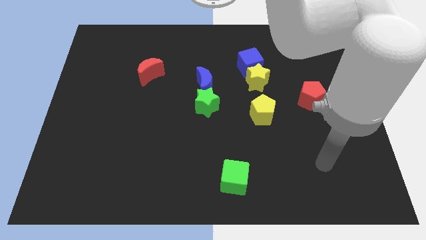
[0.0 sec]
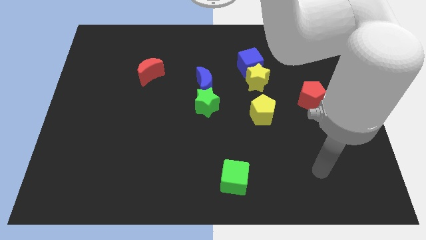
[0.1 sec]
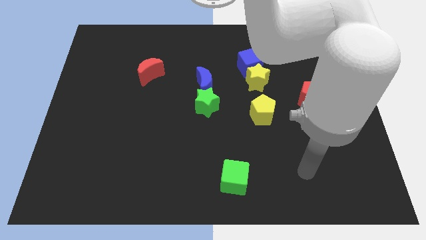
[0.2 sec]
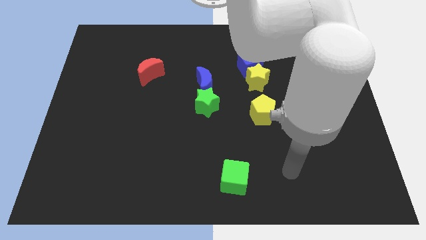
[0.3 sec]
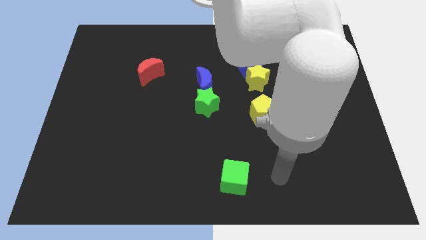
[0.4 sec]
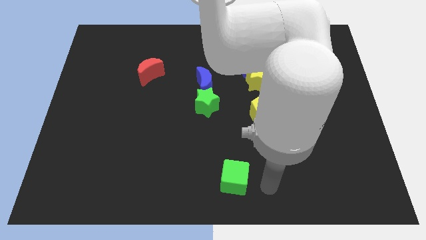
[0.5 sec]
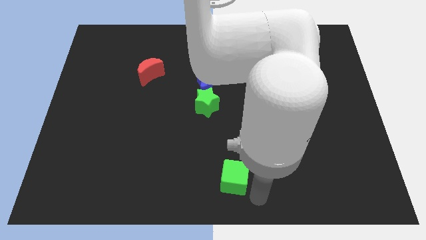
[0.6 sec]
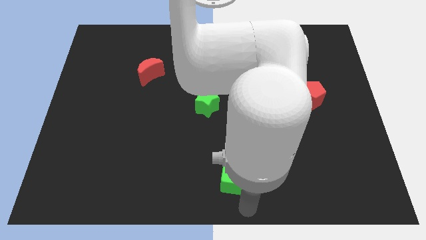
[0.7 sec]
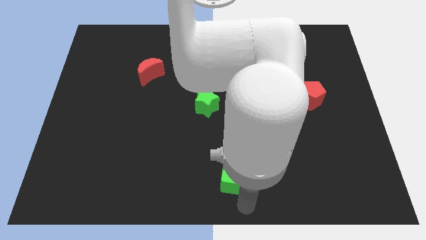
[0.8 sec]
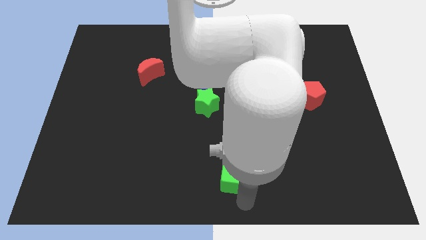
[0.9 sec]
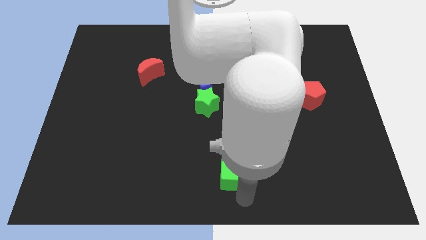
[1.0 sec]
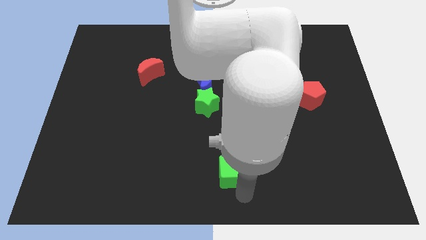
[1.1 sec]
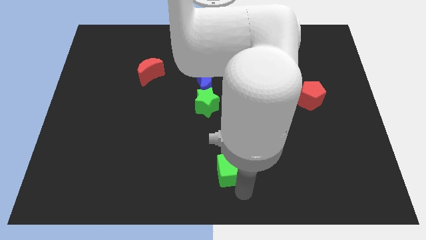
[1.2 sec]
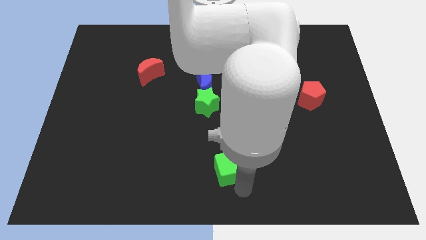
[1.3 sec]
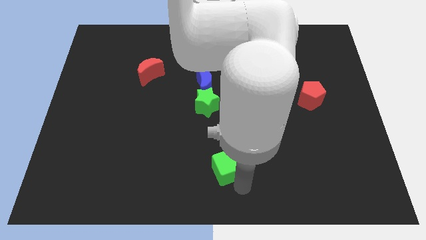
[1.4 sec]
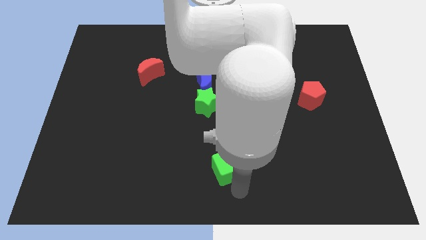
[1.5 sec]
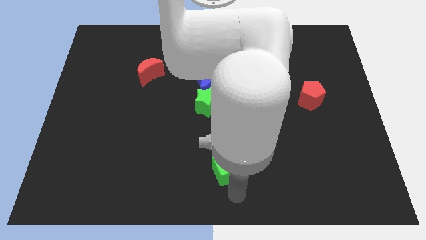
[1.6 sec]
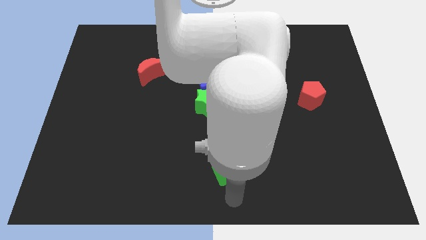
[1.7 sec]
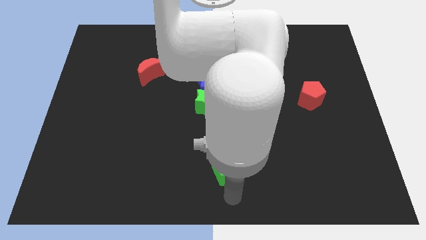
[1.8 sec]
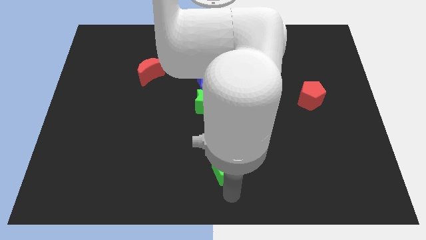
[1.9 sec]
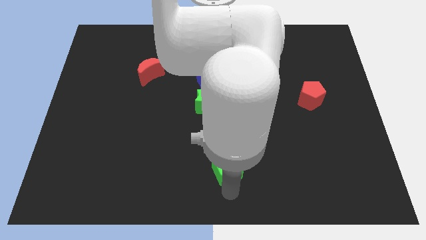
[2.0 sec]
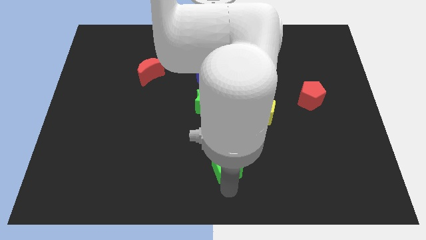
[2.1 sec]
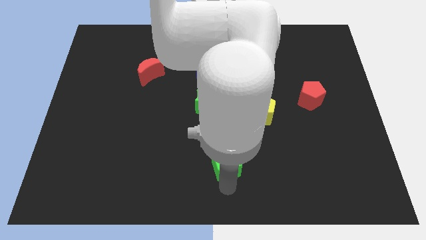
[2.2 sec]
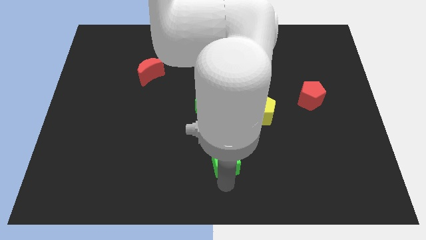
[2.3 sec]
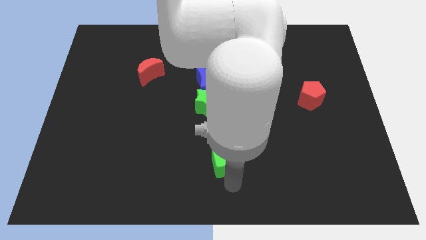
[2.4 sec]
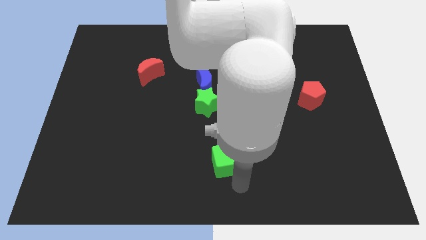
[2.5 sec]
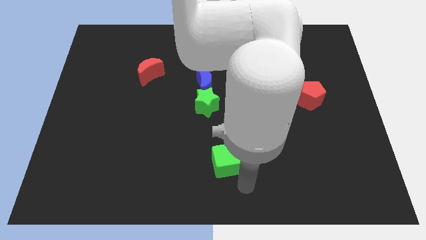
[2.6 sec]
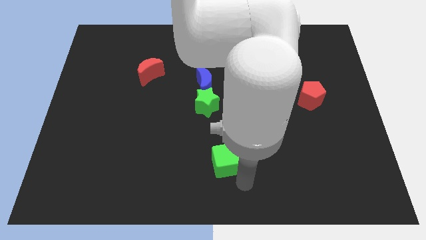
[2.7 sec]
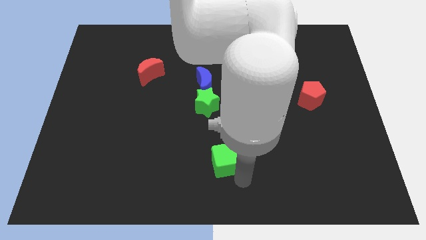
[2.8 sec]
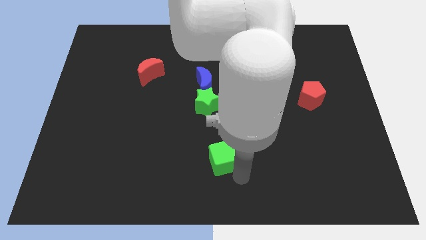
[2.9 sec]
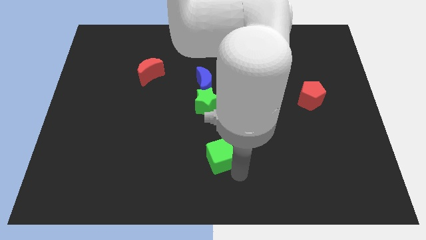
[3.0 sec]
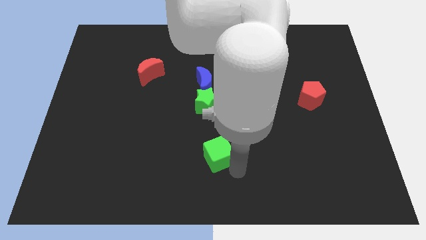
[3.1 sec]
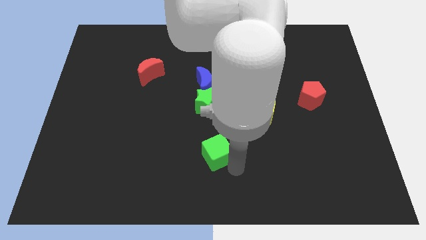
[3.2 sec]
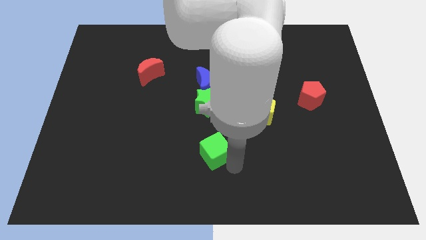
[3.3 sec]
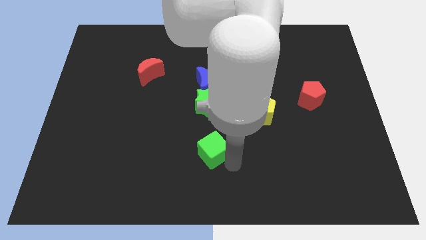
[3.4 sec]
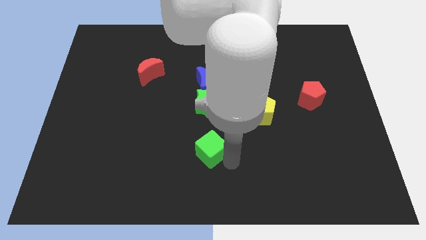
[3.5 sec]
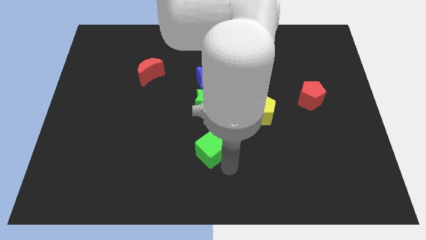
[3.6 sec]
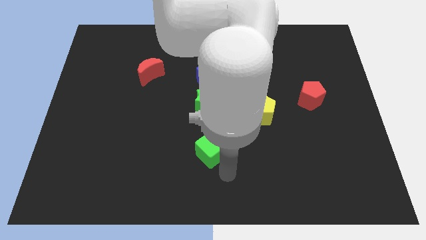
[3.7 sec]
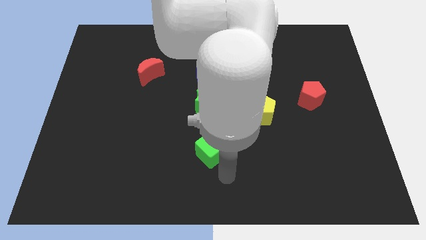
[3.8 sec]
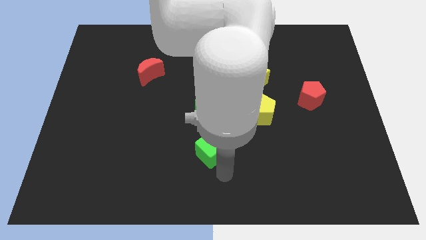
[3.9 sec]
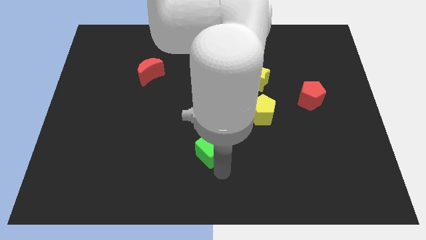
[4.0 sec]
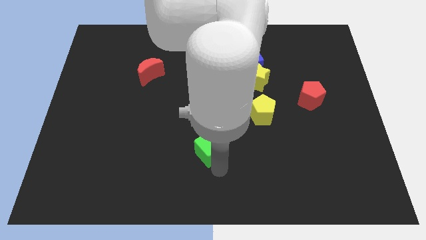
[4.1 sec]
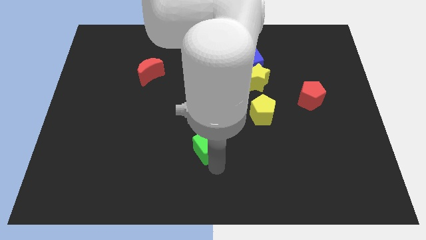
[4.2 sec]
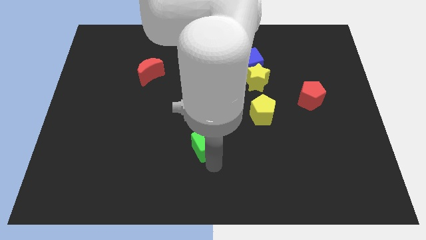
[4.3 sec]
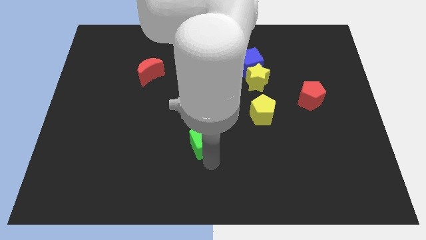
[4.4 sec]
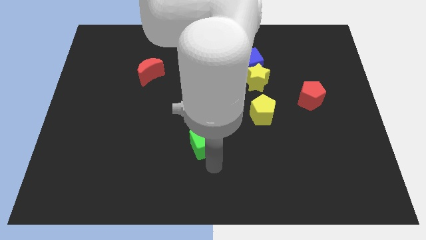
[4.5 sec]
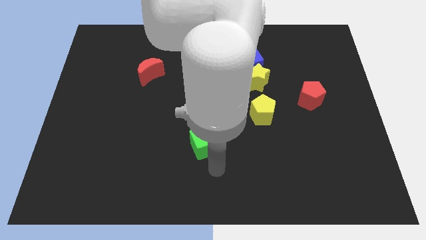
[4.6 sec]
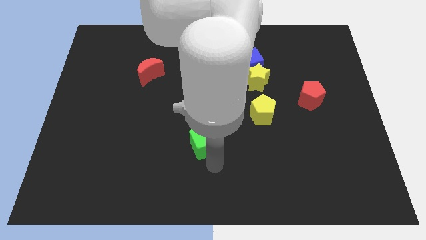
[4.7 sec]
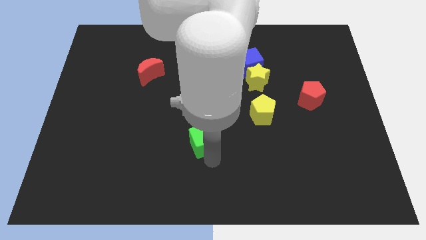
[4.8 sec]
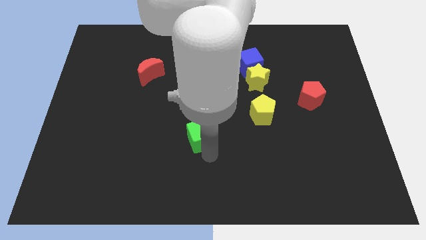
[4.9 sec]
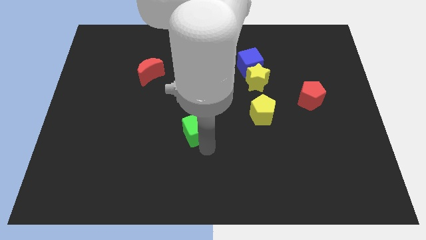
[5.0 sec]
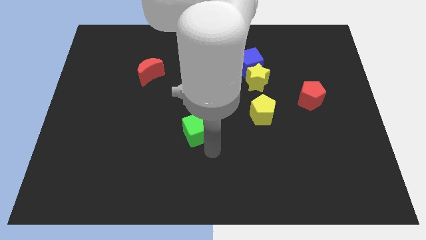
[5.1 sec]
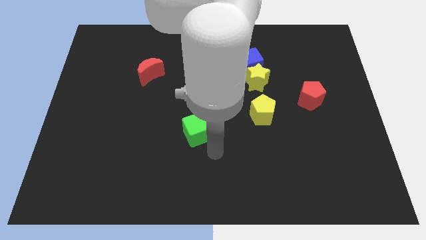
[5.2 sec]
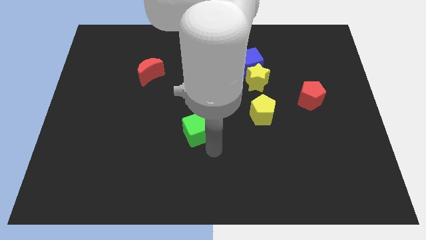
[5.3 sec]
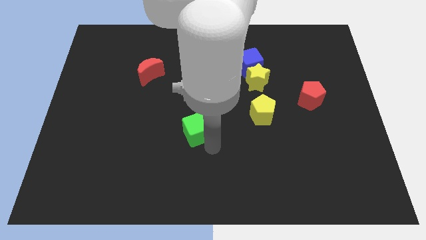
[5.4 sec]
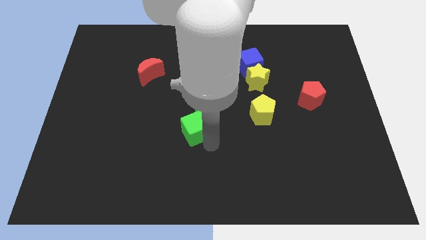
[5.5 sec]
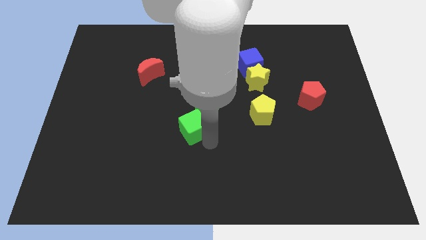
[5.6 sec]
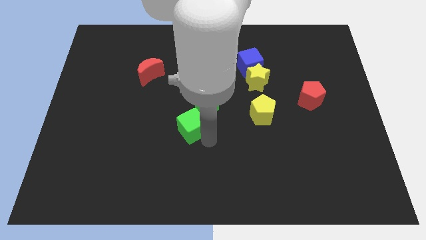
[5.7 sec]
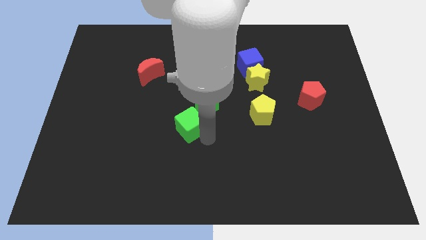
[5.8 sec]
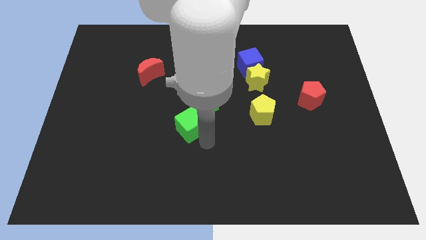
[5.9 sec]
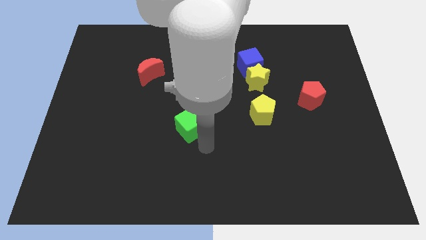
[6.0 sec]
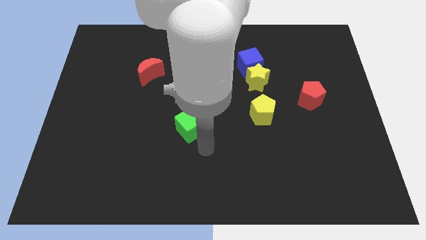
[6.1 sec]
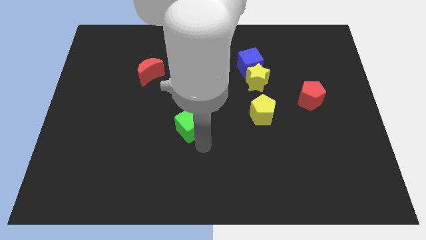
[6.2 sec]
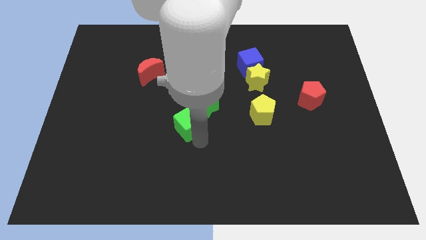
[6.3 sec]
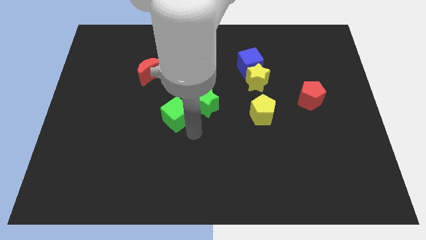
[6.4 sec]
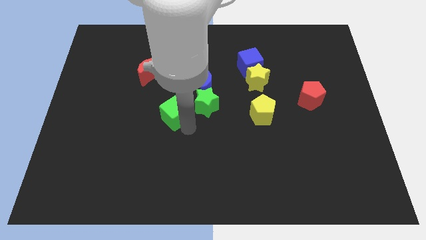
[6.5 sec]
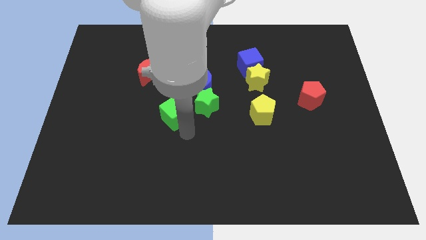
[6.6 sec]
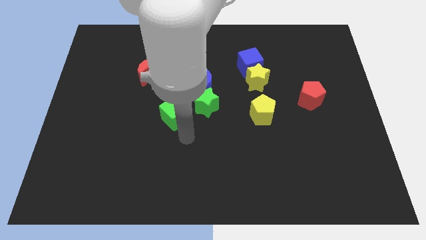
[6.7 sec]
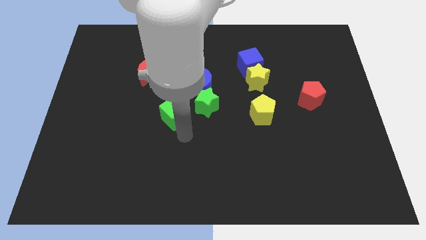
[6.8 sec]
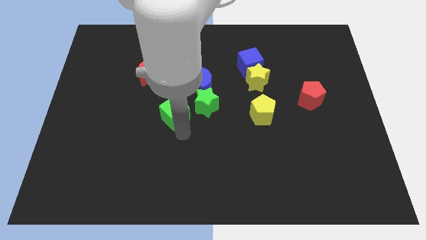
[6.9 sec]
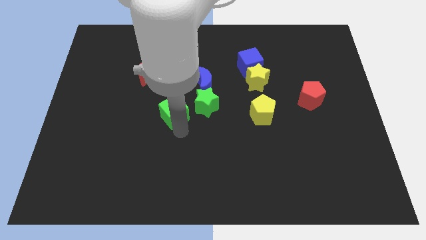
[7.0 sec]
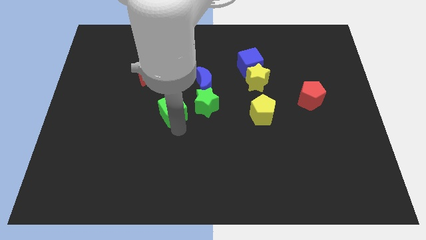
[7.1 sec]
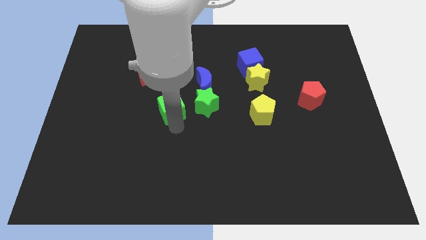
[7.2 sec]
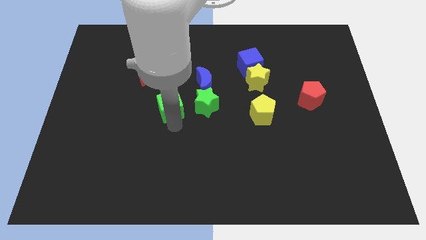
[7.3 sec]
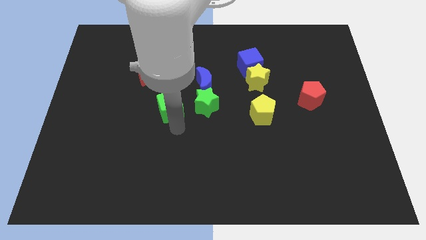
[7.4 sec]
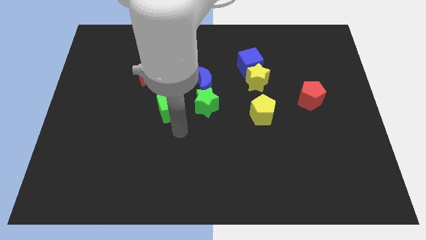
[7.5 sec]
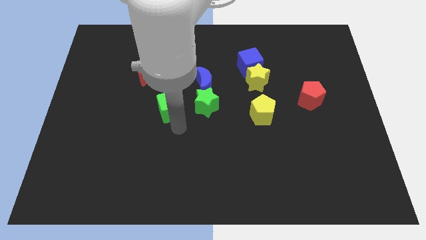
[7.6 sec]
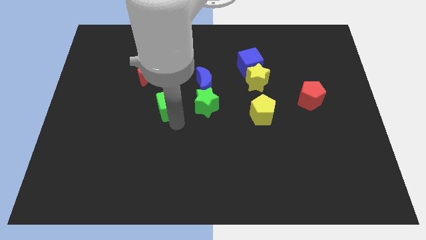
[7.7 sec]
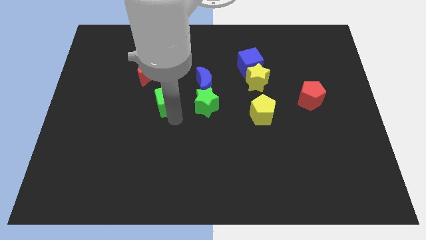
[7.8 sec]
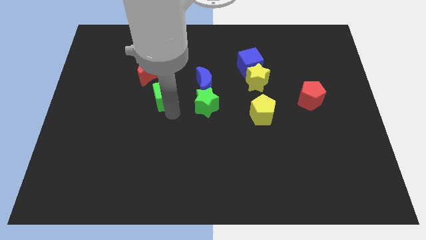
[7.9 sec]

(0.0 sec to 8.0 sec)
slide the green cube just left of the blue moon
